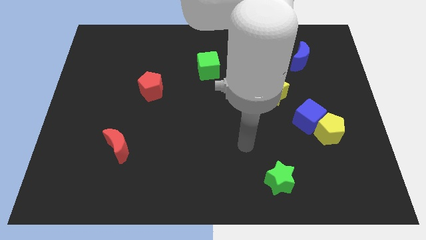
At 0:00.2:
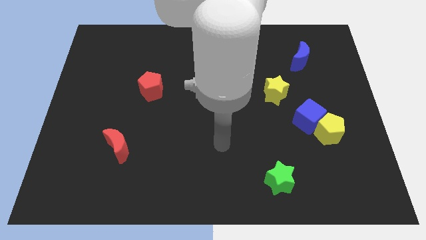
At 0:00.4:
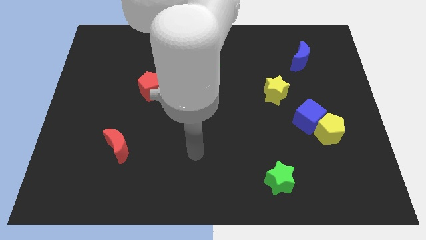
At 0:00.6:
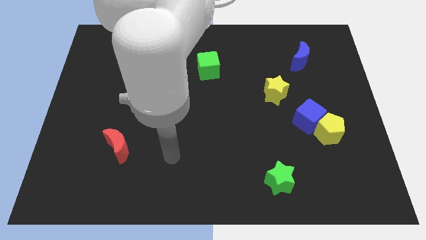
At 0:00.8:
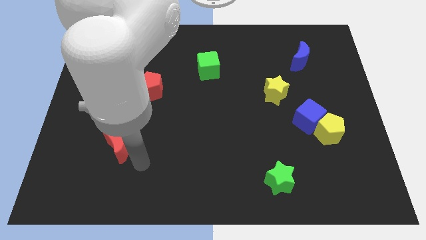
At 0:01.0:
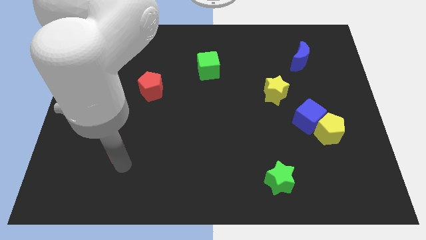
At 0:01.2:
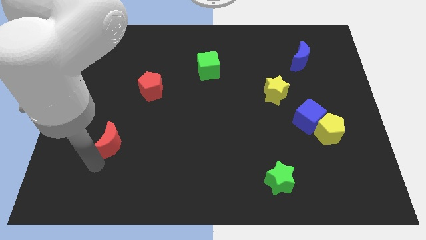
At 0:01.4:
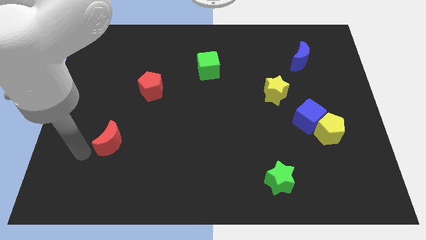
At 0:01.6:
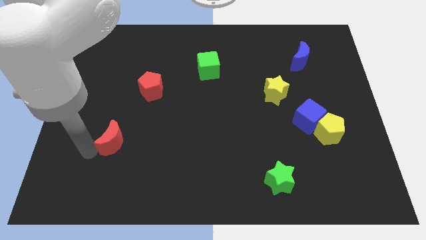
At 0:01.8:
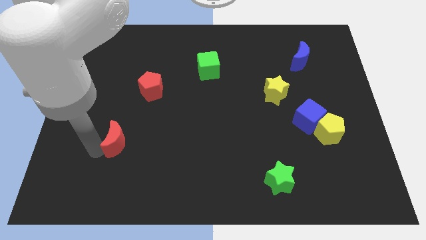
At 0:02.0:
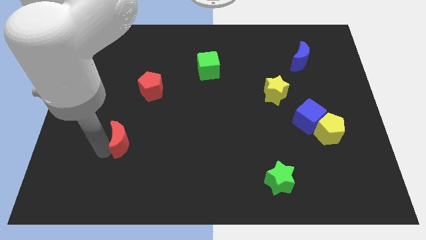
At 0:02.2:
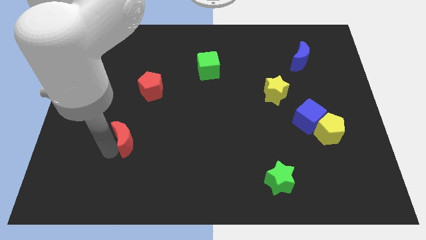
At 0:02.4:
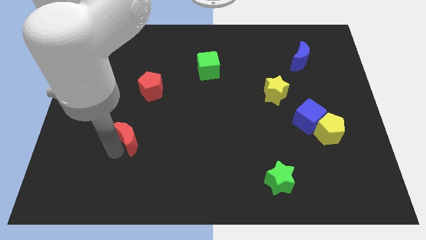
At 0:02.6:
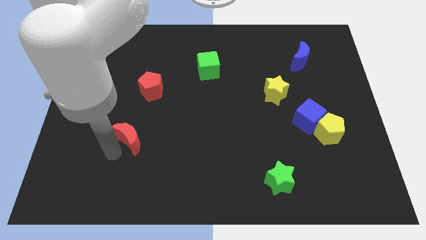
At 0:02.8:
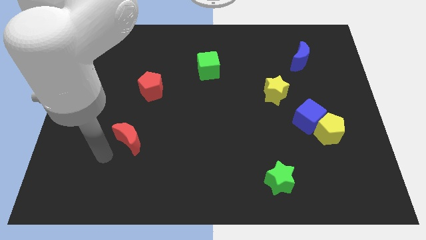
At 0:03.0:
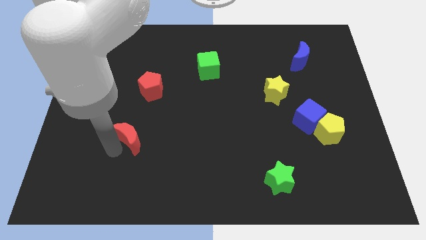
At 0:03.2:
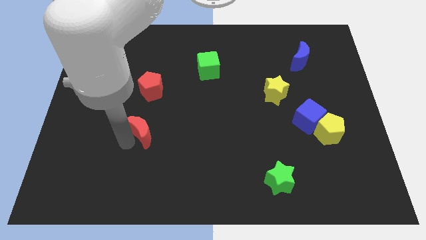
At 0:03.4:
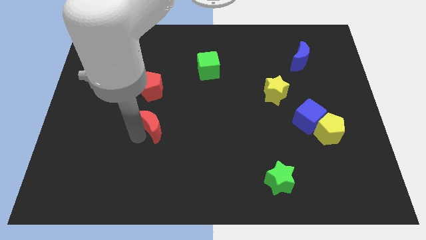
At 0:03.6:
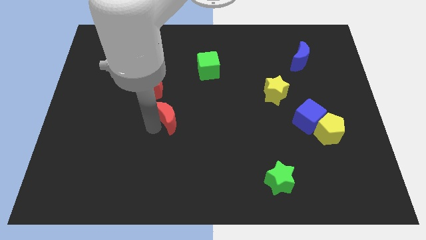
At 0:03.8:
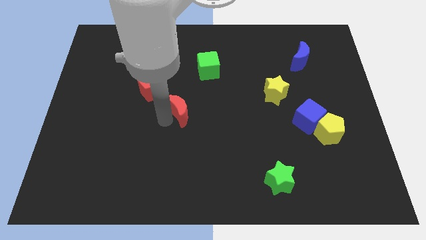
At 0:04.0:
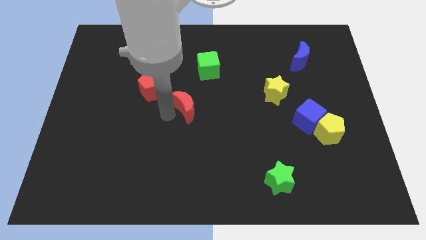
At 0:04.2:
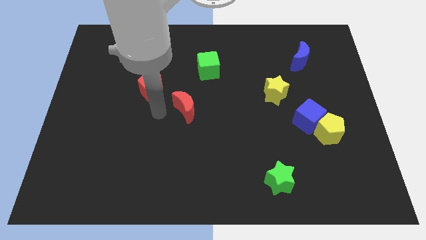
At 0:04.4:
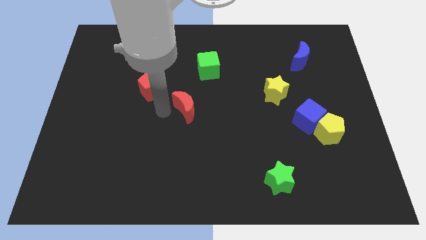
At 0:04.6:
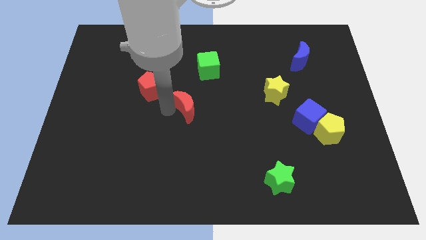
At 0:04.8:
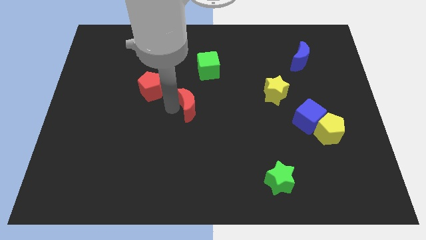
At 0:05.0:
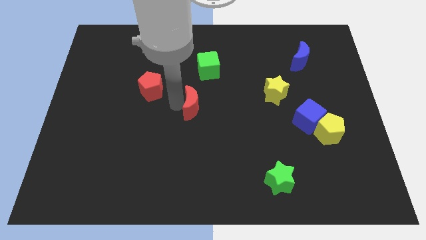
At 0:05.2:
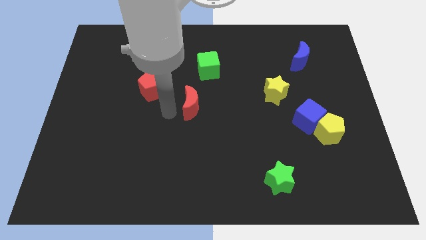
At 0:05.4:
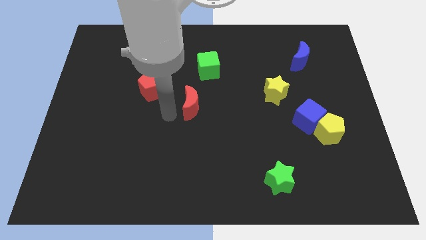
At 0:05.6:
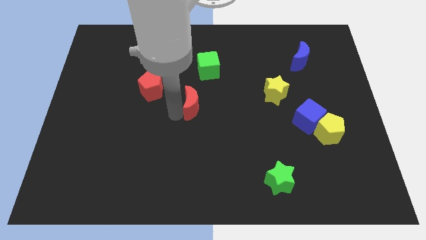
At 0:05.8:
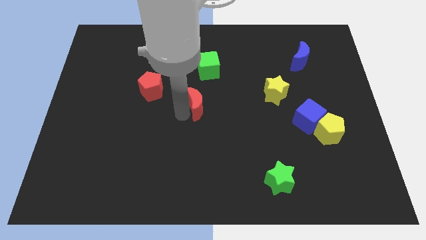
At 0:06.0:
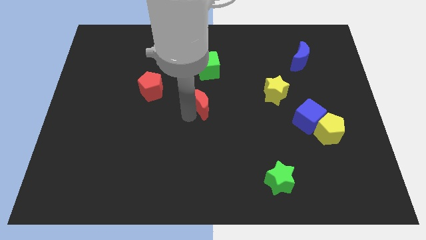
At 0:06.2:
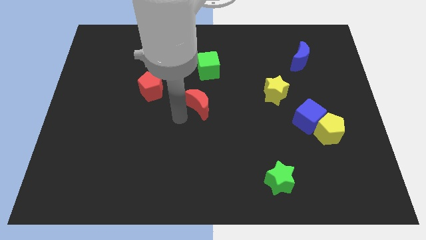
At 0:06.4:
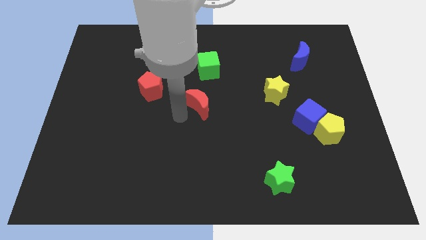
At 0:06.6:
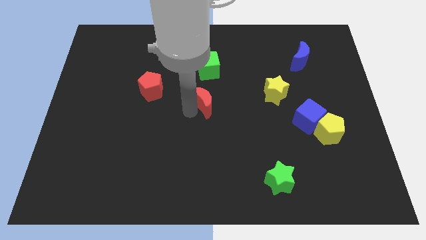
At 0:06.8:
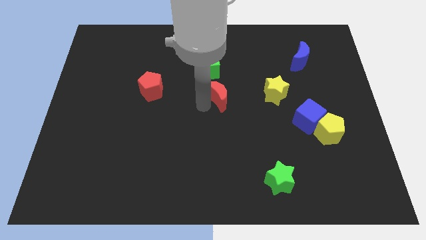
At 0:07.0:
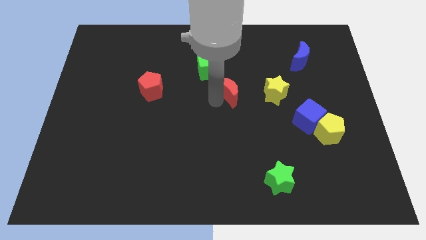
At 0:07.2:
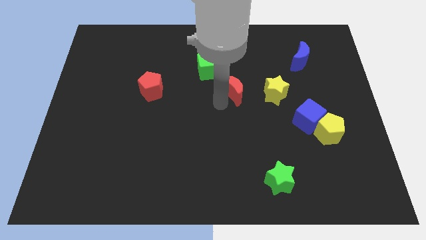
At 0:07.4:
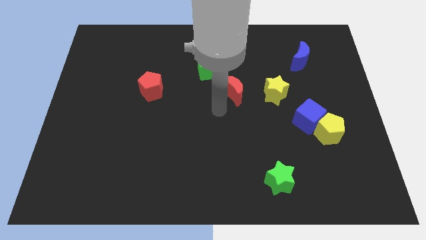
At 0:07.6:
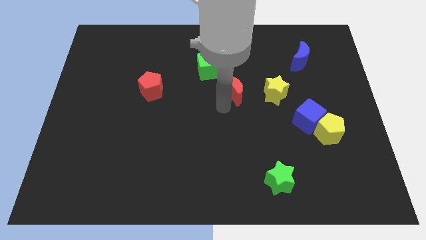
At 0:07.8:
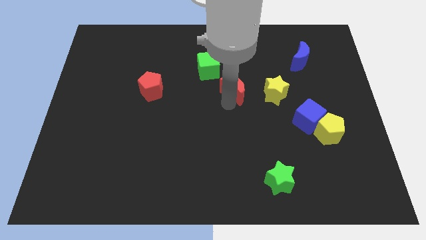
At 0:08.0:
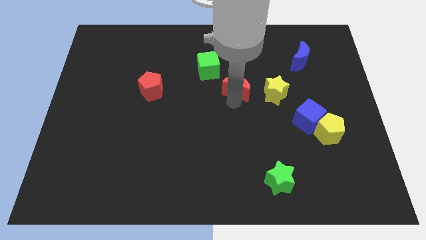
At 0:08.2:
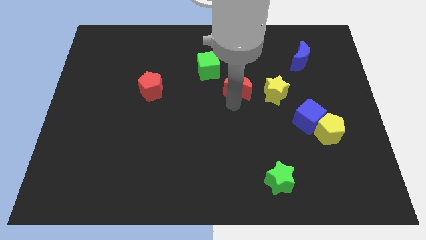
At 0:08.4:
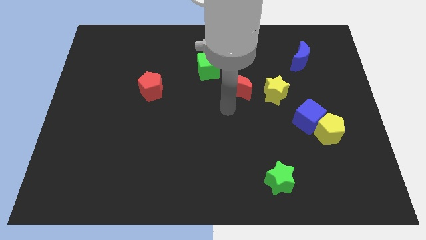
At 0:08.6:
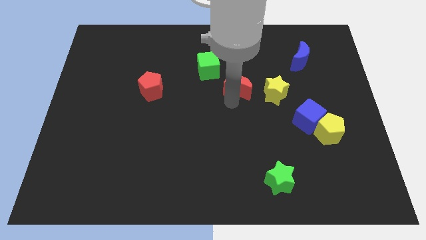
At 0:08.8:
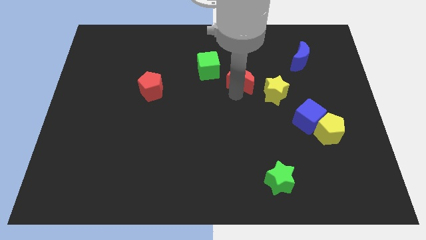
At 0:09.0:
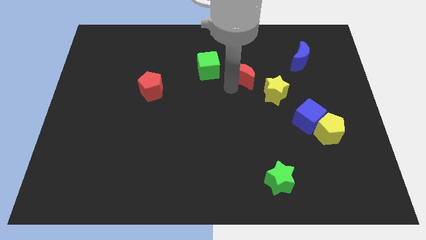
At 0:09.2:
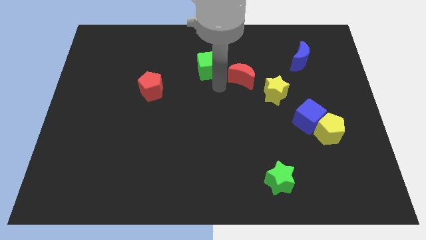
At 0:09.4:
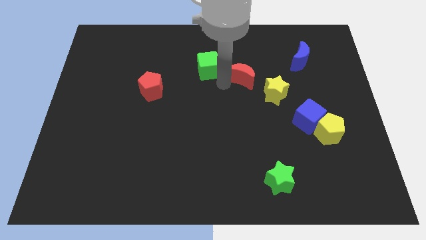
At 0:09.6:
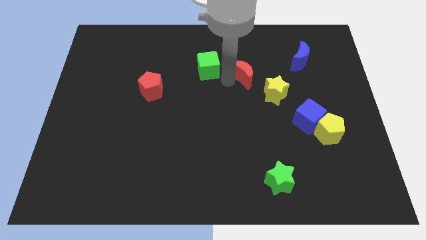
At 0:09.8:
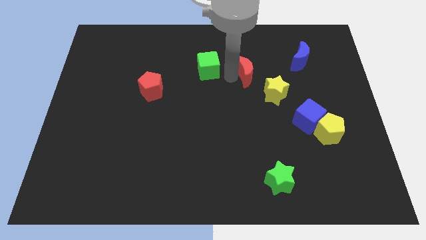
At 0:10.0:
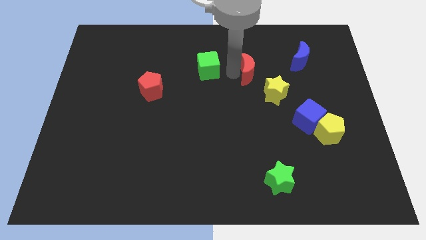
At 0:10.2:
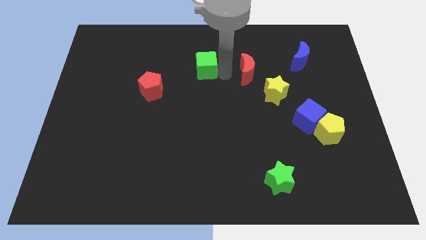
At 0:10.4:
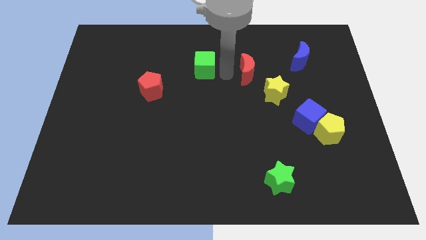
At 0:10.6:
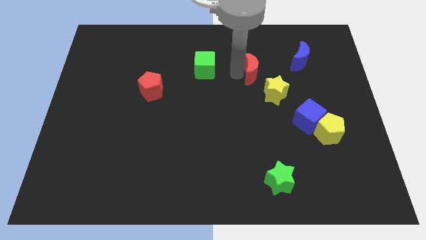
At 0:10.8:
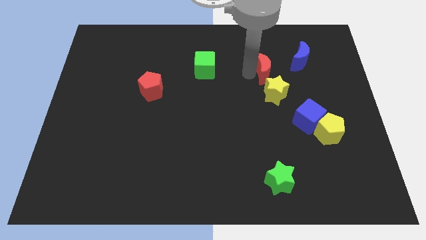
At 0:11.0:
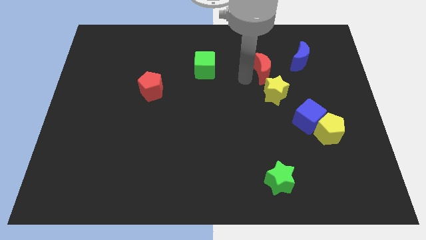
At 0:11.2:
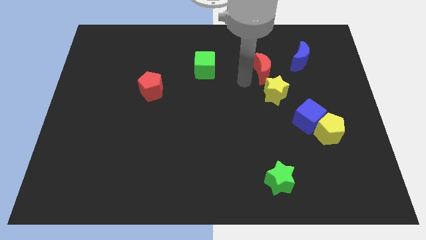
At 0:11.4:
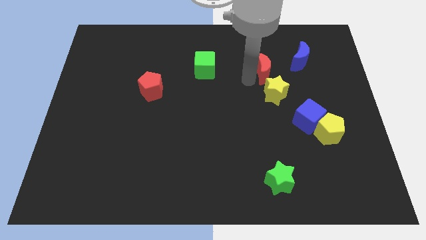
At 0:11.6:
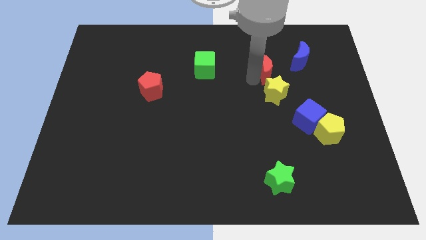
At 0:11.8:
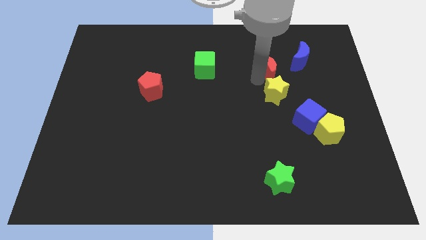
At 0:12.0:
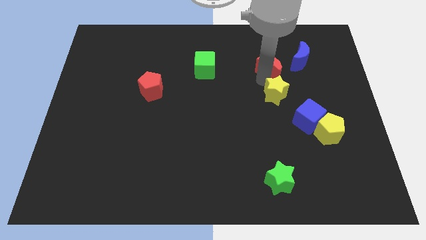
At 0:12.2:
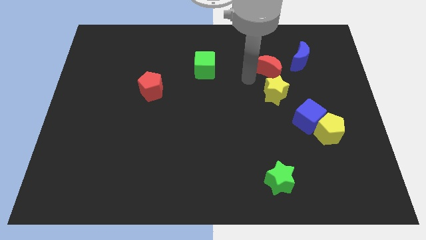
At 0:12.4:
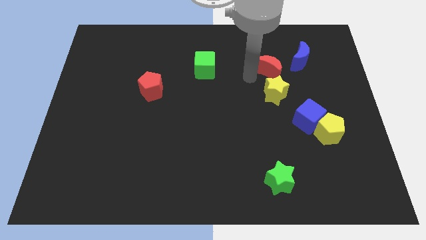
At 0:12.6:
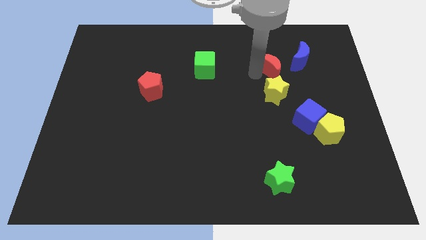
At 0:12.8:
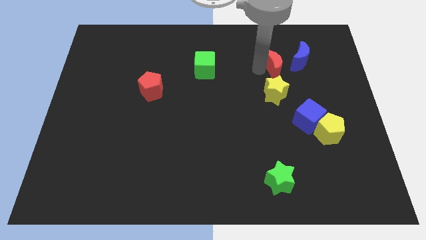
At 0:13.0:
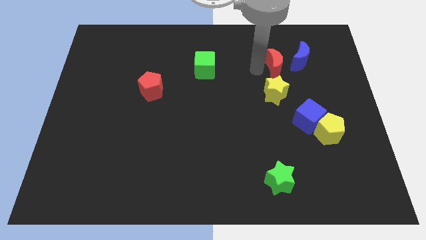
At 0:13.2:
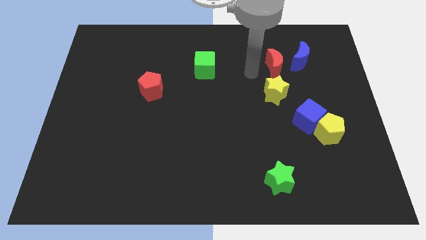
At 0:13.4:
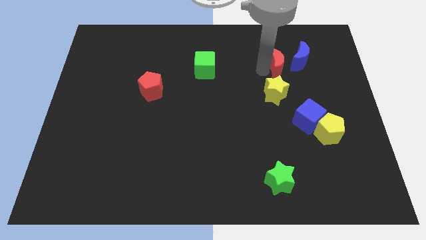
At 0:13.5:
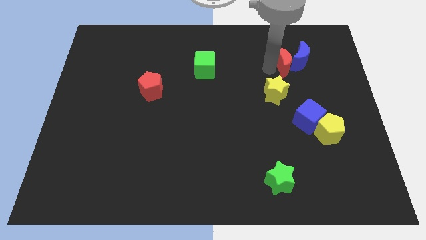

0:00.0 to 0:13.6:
push the red moon towards the blue moon
